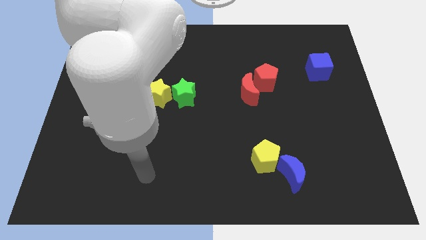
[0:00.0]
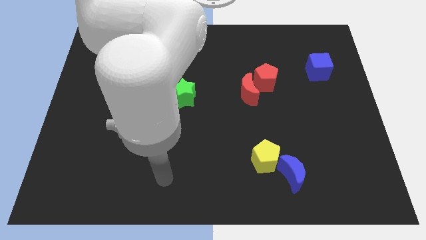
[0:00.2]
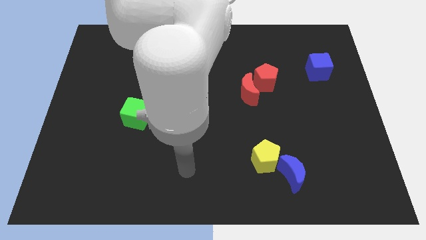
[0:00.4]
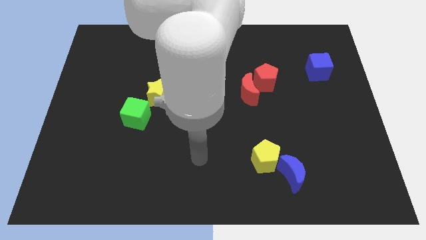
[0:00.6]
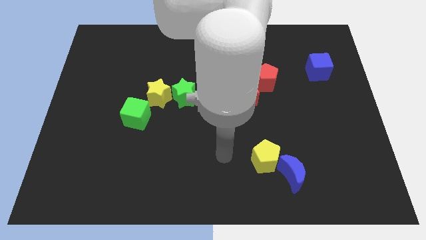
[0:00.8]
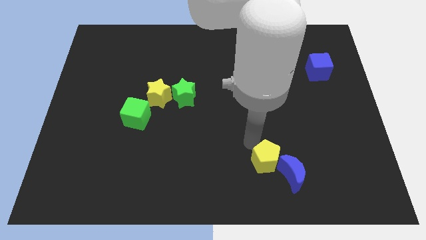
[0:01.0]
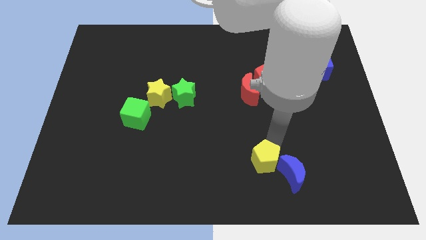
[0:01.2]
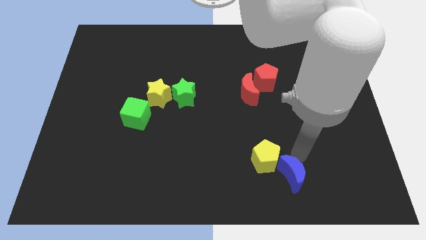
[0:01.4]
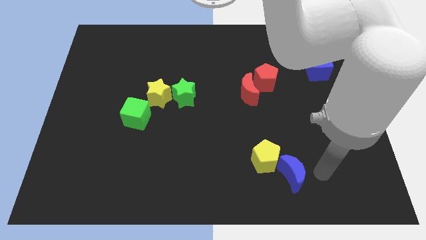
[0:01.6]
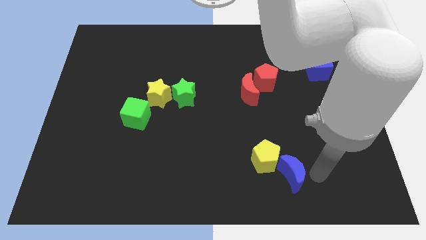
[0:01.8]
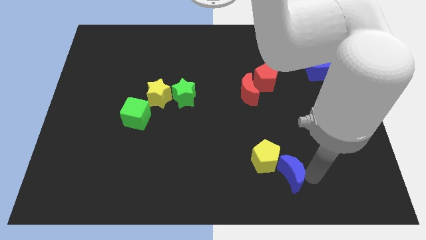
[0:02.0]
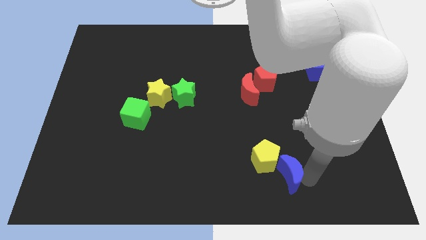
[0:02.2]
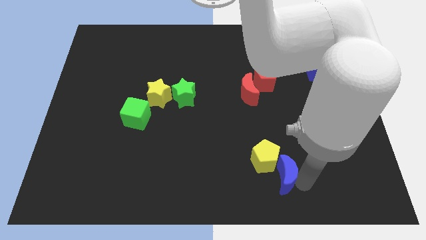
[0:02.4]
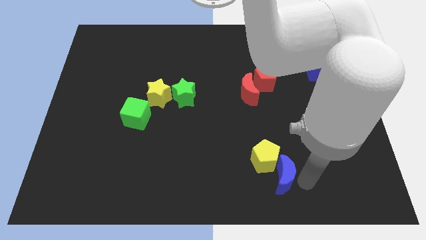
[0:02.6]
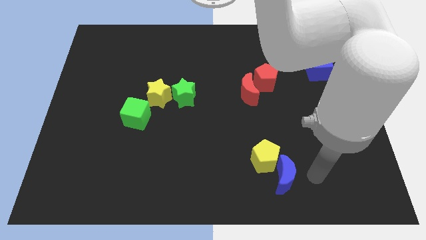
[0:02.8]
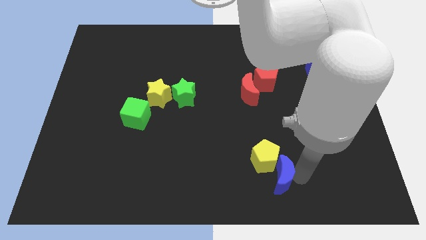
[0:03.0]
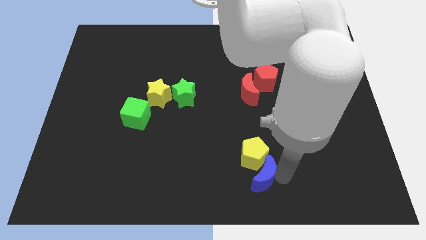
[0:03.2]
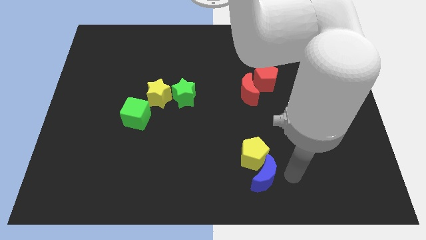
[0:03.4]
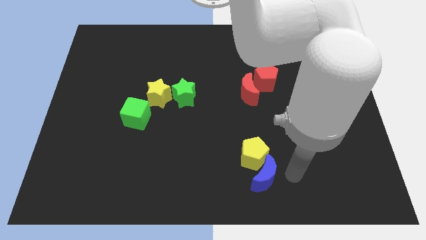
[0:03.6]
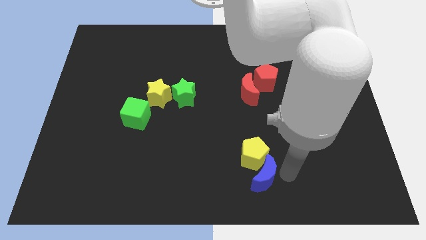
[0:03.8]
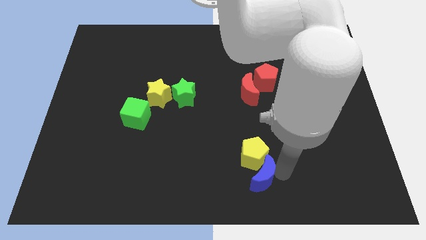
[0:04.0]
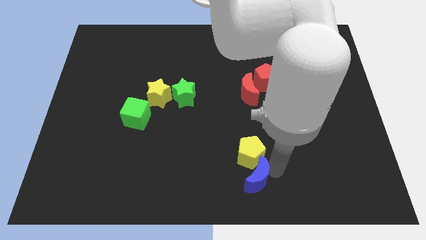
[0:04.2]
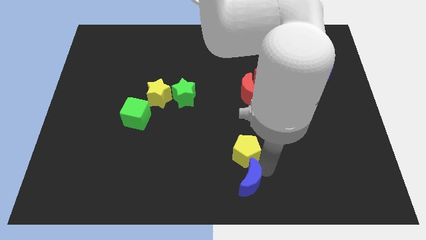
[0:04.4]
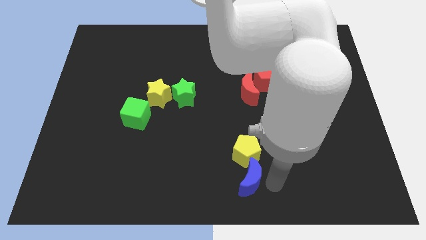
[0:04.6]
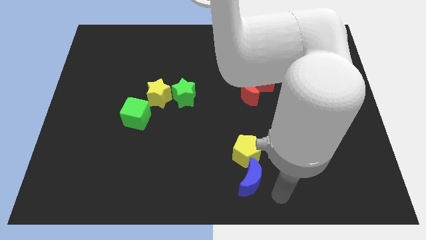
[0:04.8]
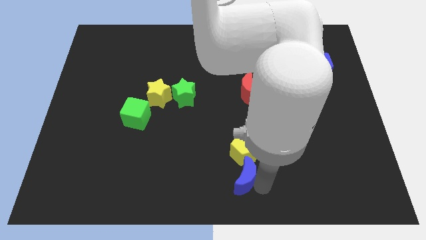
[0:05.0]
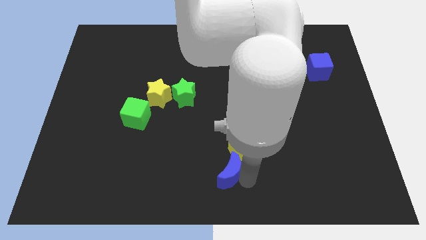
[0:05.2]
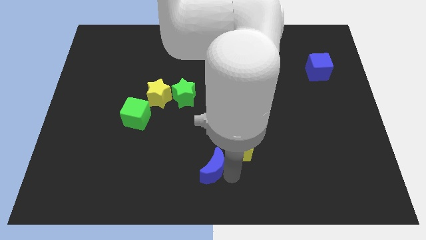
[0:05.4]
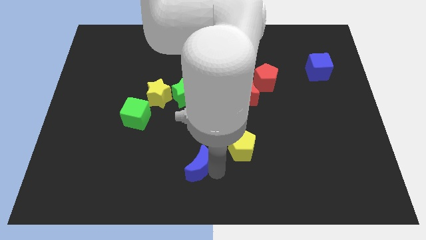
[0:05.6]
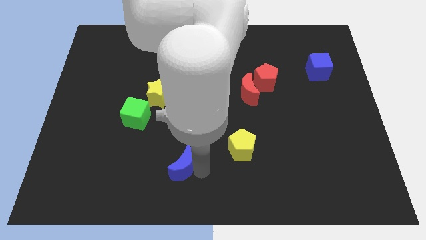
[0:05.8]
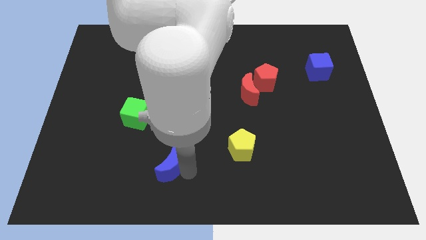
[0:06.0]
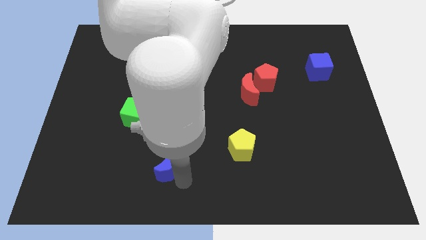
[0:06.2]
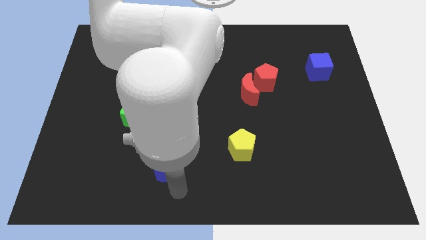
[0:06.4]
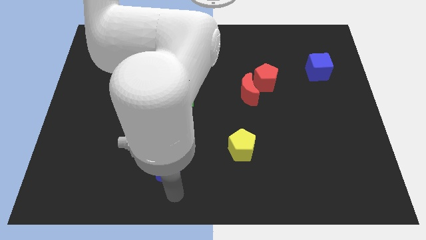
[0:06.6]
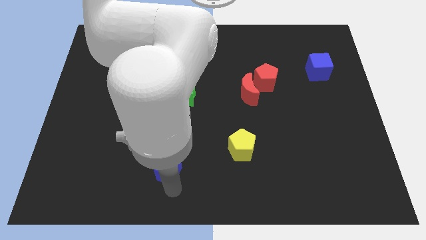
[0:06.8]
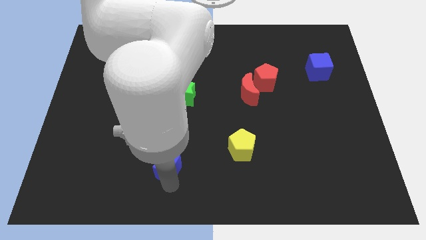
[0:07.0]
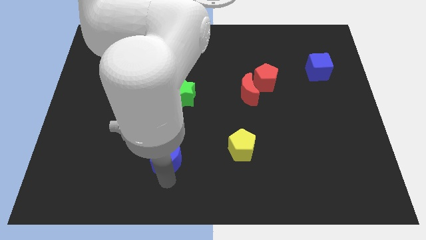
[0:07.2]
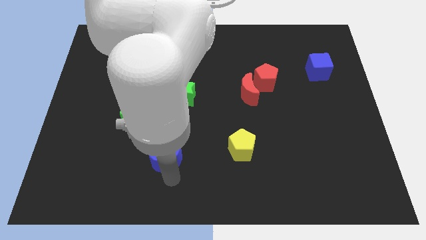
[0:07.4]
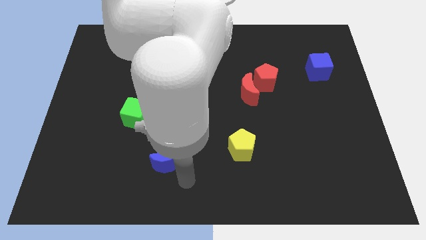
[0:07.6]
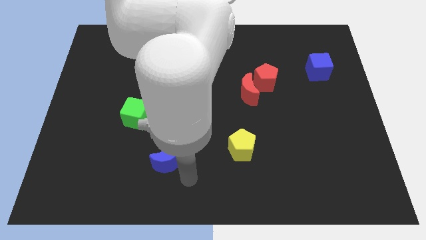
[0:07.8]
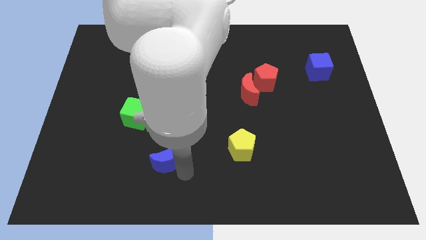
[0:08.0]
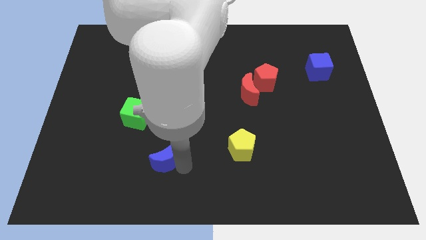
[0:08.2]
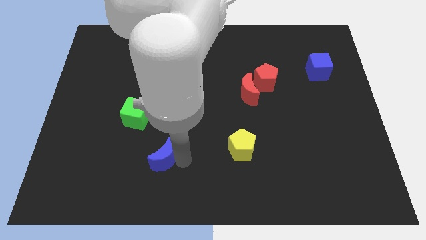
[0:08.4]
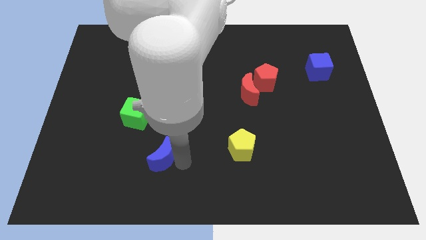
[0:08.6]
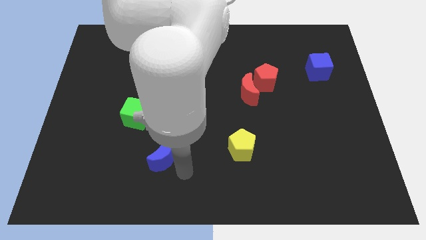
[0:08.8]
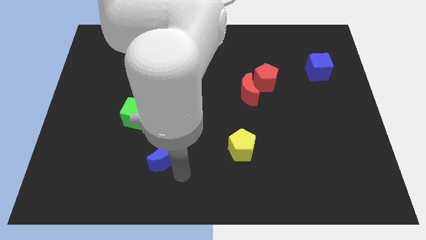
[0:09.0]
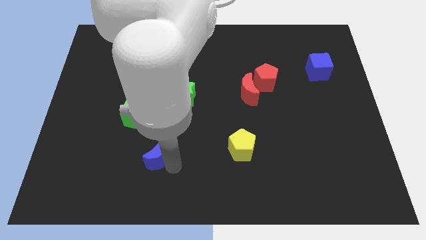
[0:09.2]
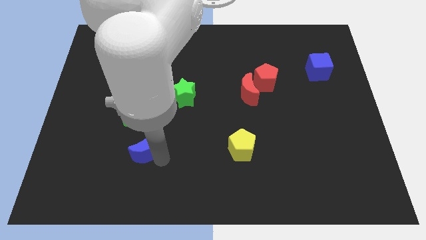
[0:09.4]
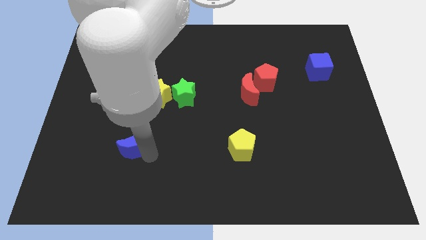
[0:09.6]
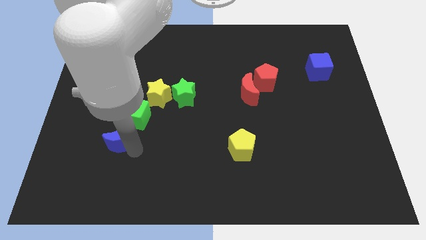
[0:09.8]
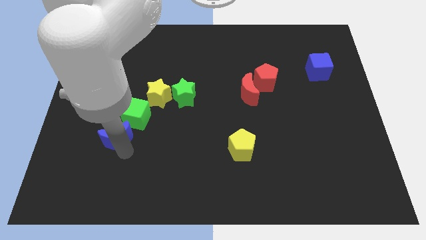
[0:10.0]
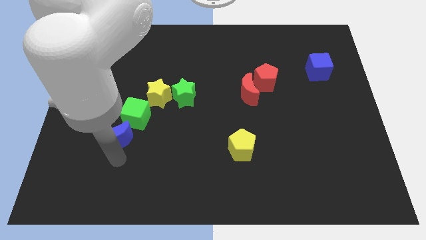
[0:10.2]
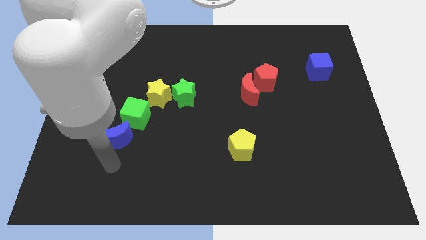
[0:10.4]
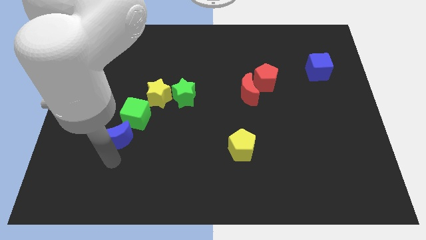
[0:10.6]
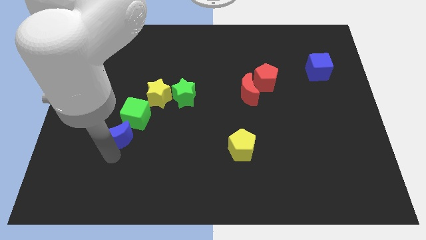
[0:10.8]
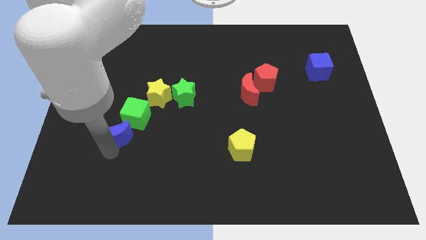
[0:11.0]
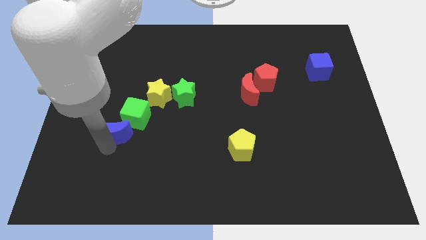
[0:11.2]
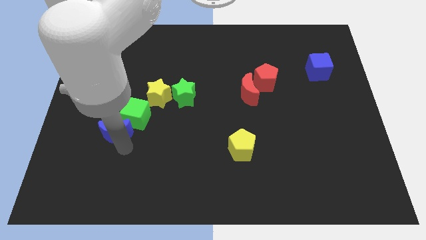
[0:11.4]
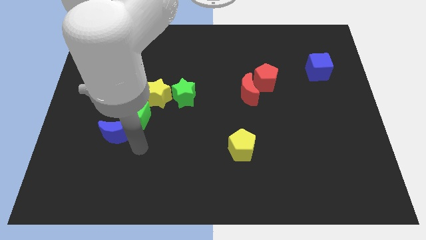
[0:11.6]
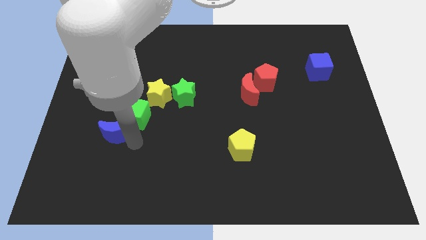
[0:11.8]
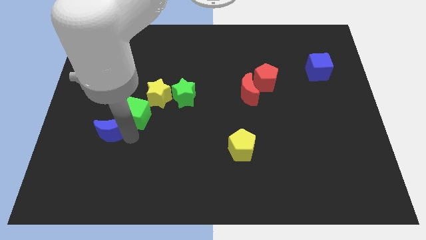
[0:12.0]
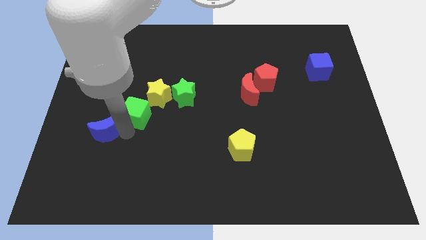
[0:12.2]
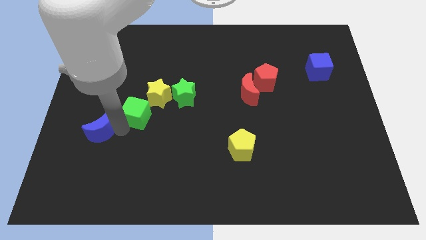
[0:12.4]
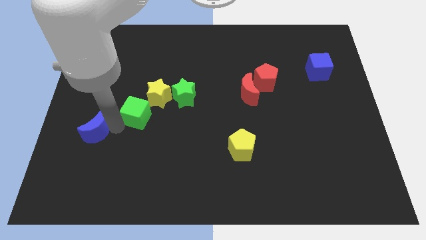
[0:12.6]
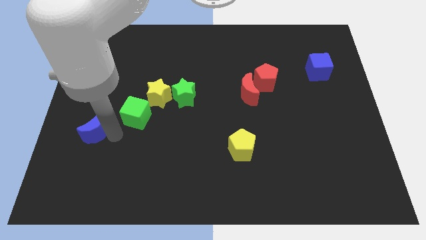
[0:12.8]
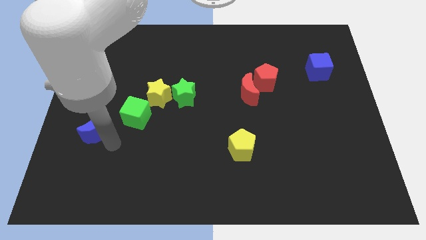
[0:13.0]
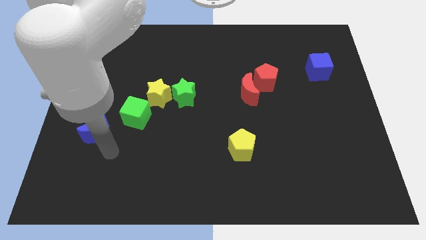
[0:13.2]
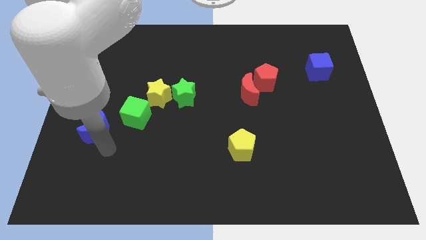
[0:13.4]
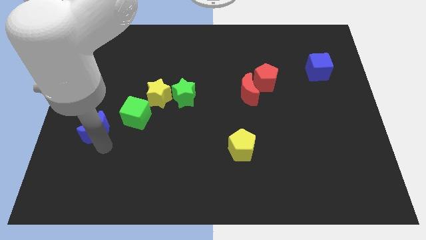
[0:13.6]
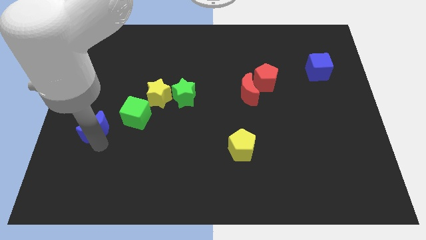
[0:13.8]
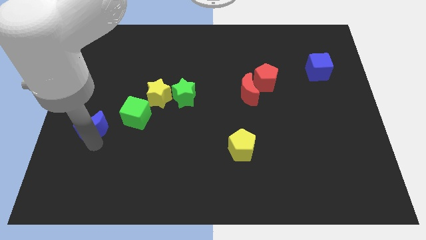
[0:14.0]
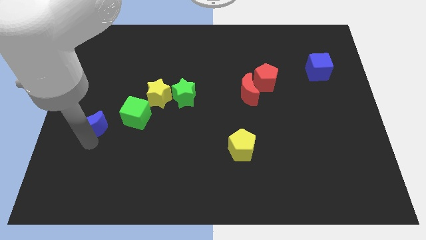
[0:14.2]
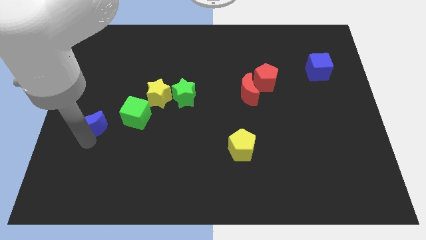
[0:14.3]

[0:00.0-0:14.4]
push the blue moon to the center left
